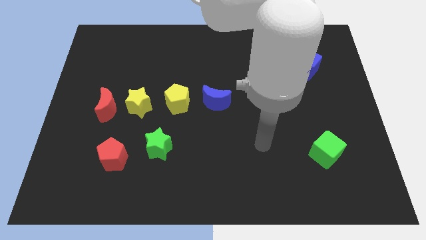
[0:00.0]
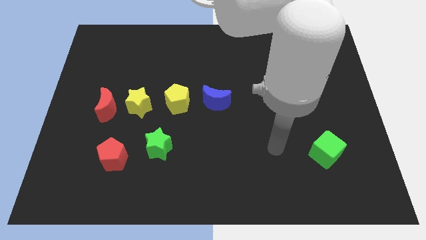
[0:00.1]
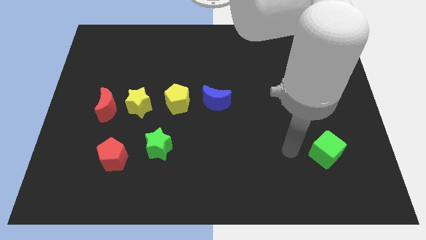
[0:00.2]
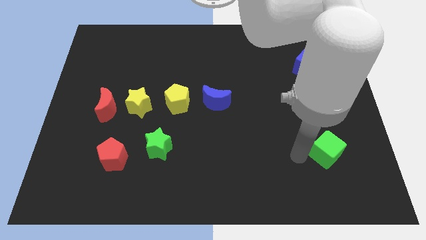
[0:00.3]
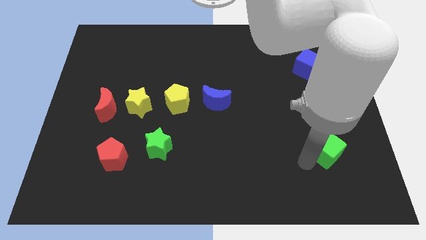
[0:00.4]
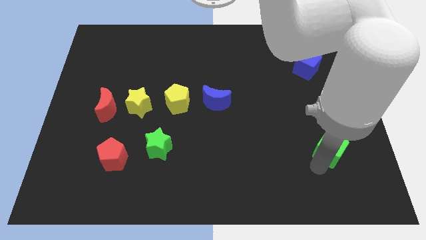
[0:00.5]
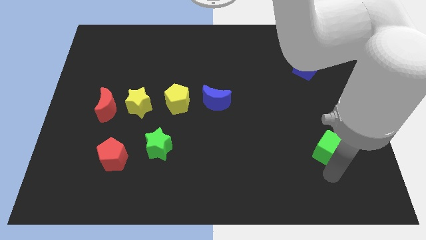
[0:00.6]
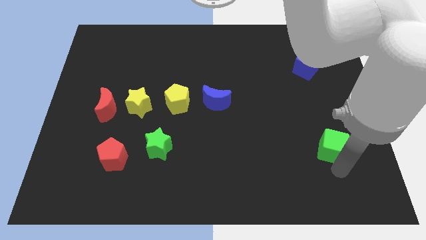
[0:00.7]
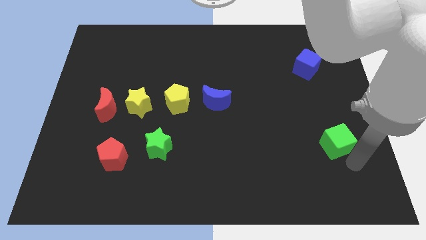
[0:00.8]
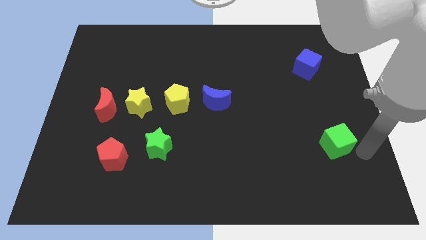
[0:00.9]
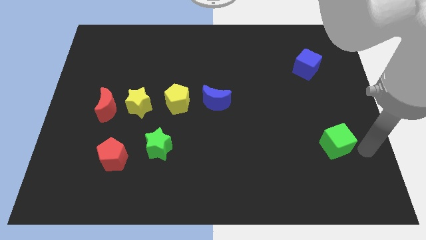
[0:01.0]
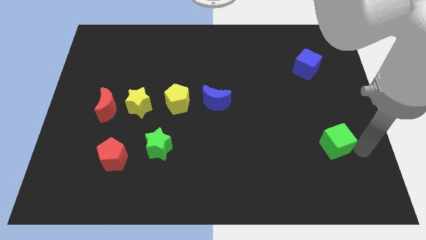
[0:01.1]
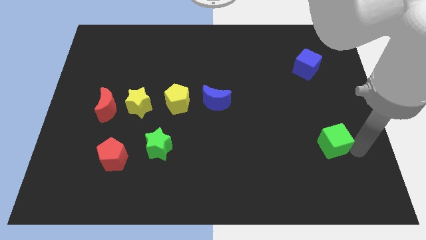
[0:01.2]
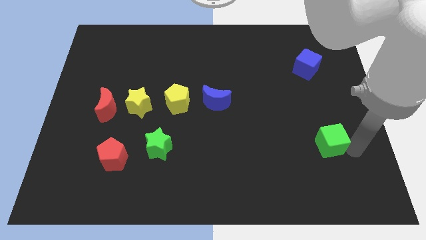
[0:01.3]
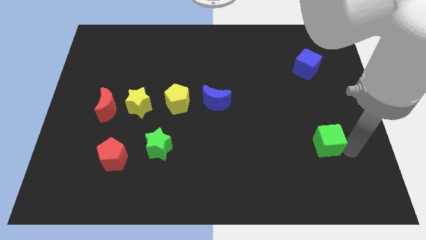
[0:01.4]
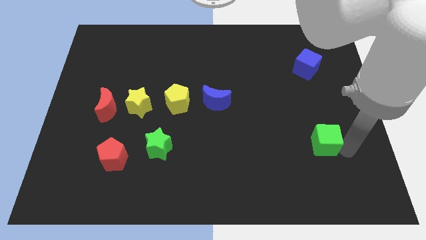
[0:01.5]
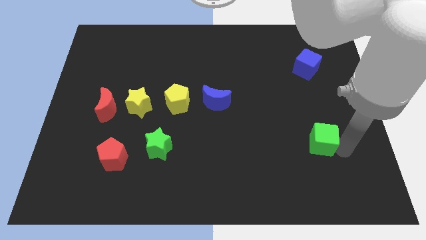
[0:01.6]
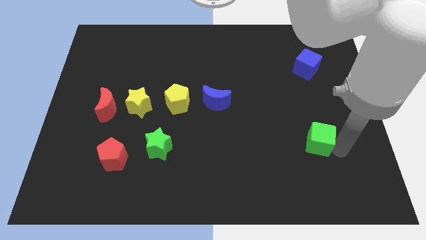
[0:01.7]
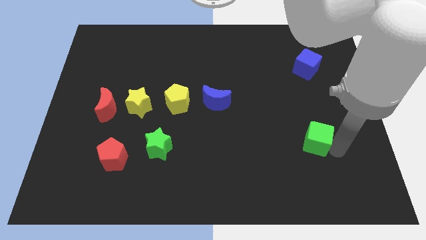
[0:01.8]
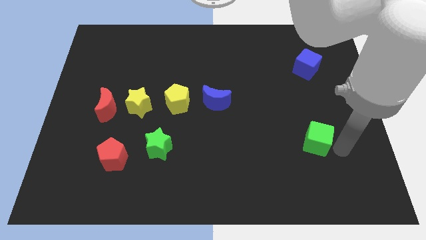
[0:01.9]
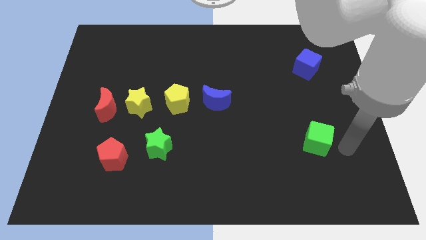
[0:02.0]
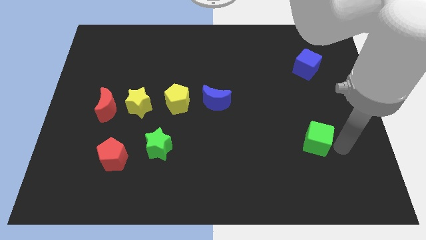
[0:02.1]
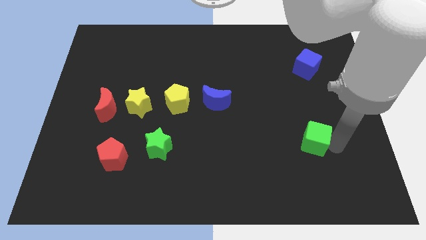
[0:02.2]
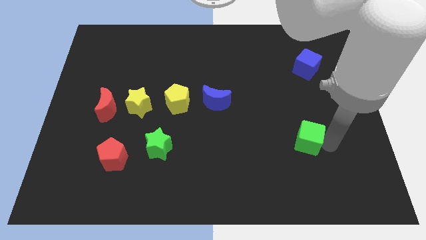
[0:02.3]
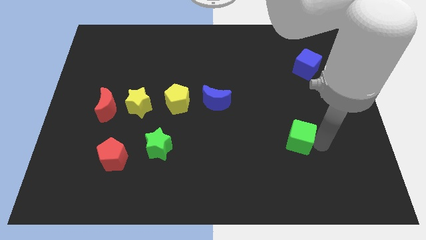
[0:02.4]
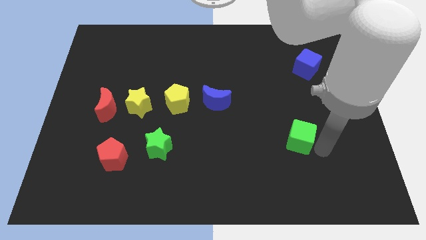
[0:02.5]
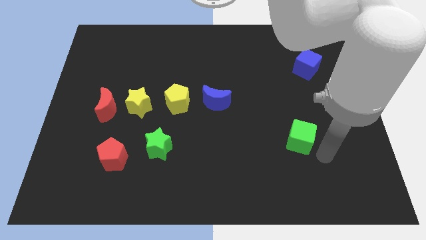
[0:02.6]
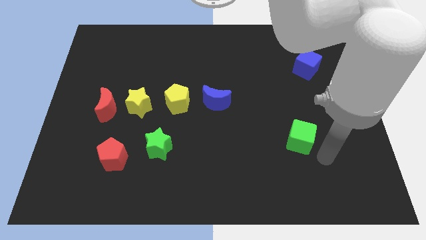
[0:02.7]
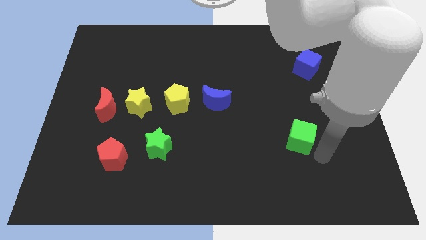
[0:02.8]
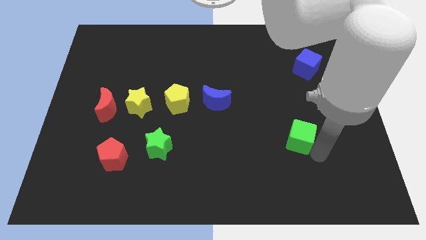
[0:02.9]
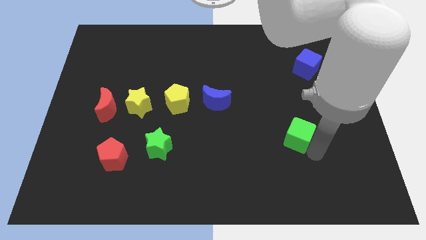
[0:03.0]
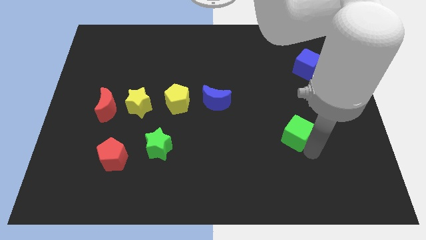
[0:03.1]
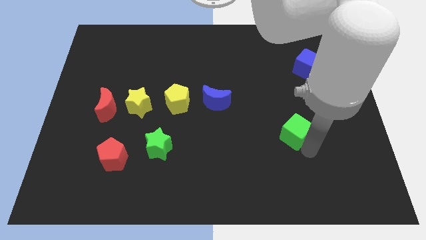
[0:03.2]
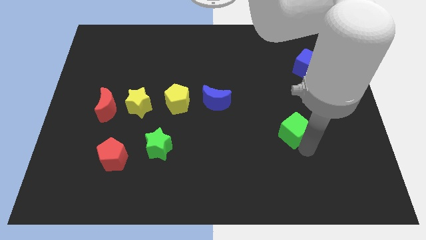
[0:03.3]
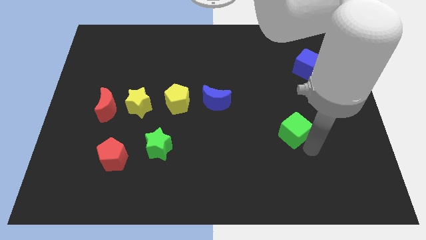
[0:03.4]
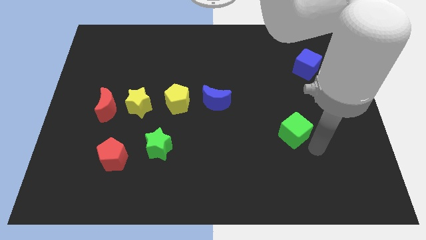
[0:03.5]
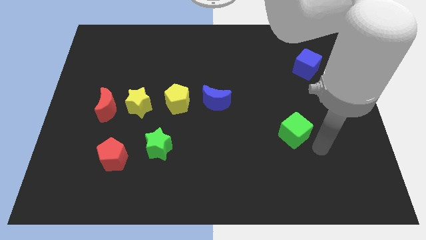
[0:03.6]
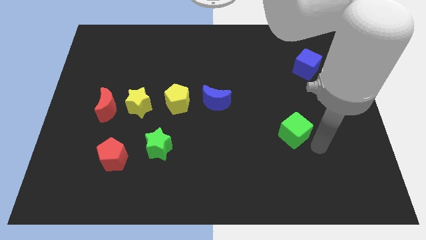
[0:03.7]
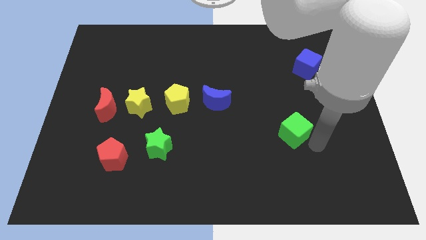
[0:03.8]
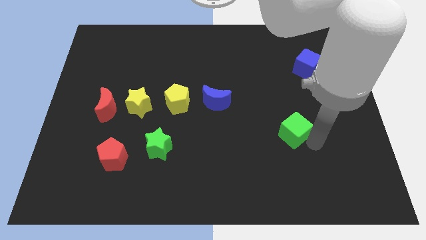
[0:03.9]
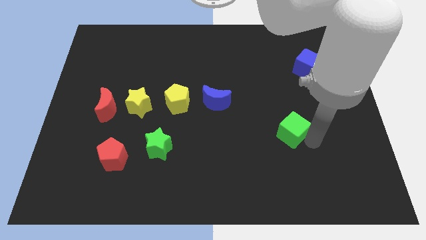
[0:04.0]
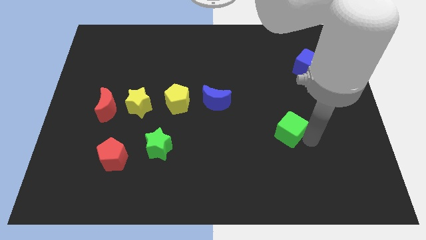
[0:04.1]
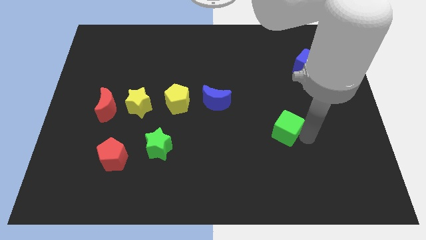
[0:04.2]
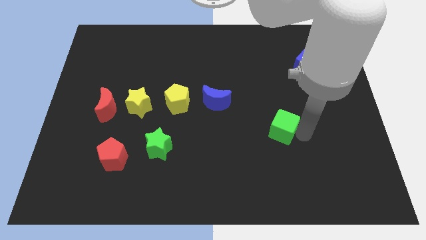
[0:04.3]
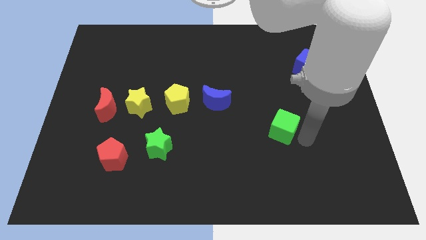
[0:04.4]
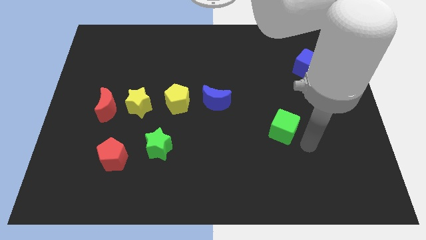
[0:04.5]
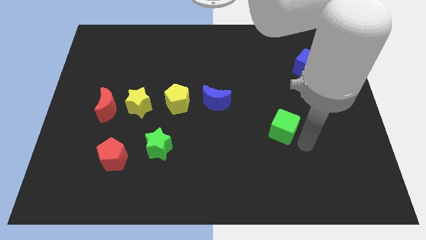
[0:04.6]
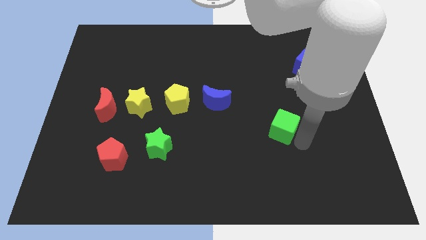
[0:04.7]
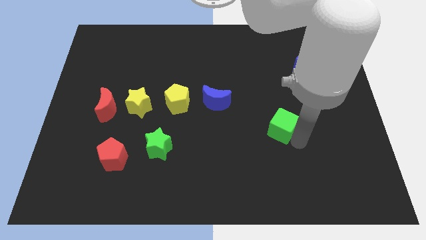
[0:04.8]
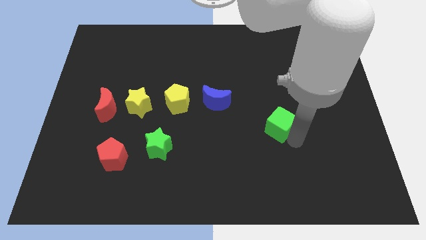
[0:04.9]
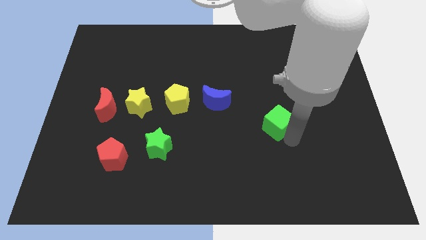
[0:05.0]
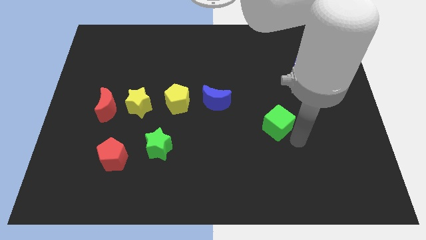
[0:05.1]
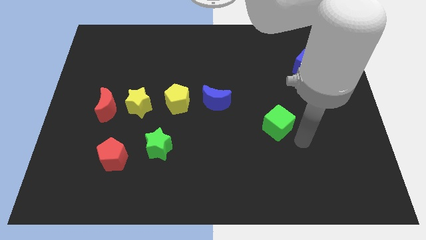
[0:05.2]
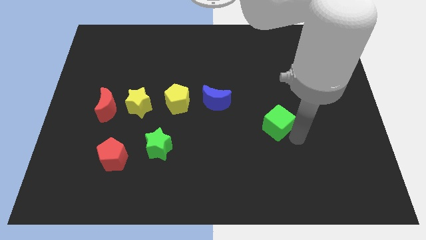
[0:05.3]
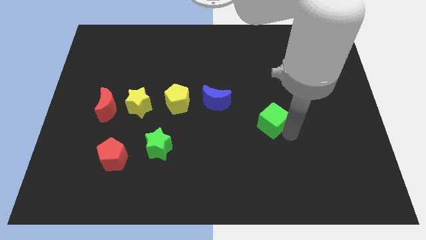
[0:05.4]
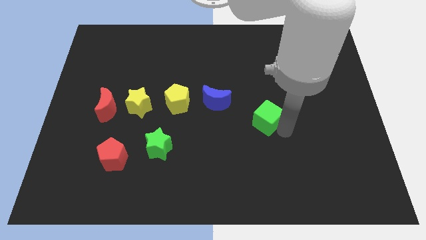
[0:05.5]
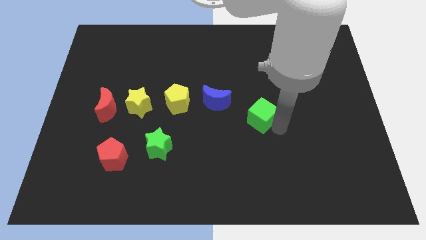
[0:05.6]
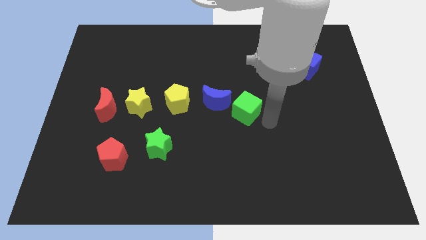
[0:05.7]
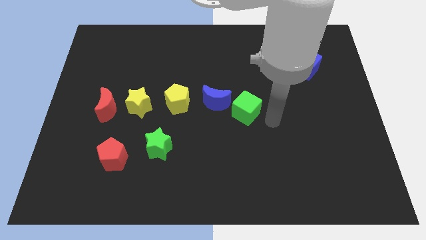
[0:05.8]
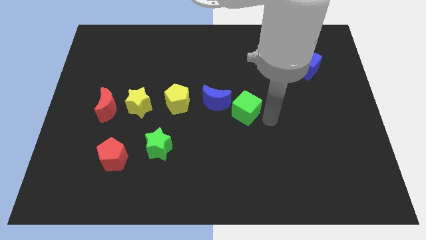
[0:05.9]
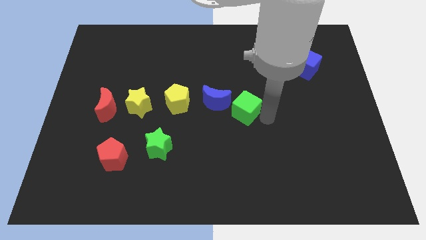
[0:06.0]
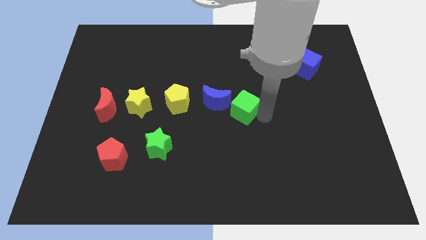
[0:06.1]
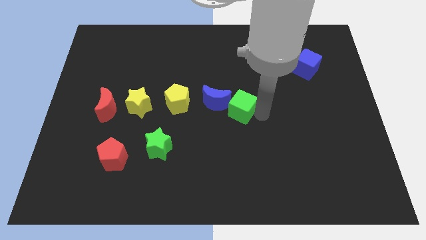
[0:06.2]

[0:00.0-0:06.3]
put the green cube just right of the yellow pentagon

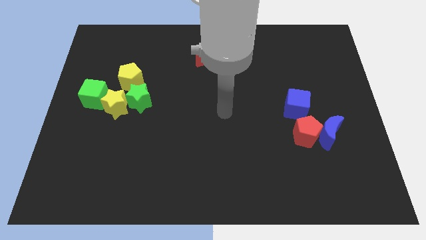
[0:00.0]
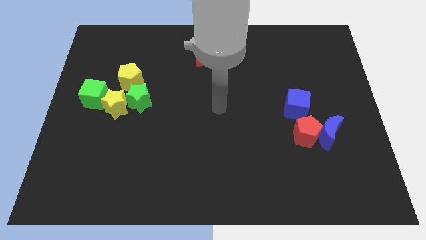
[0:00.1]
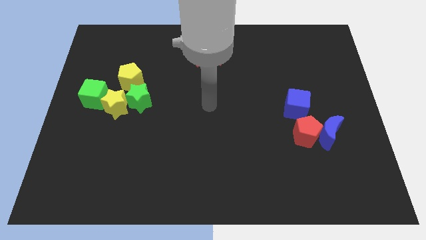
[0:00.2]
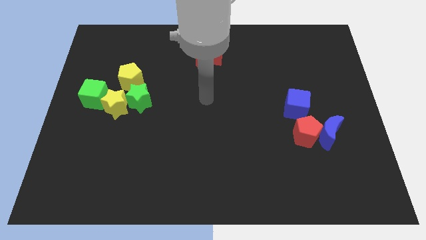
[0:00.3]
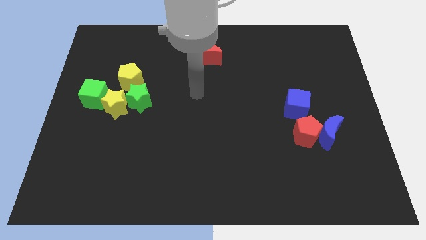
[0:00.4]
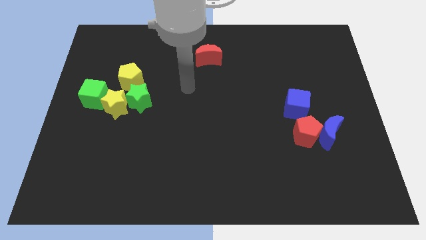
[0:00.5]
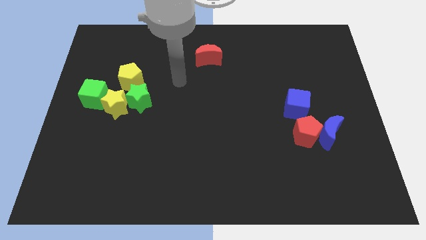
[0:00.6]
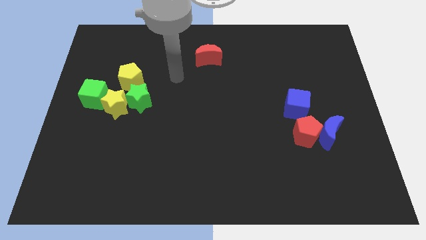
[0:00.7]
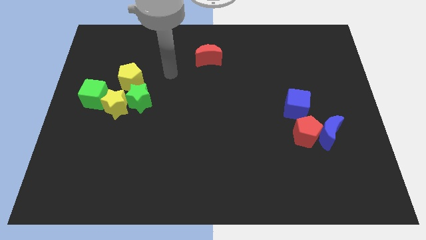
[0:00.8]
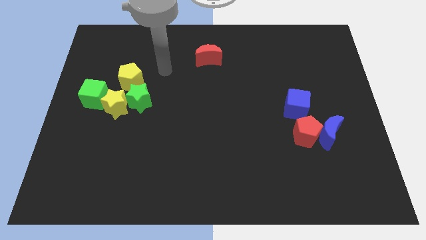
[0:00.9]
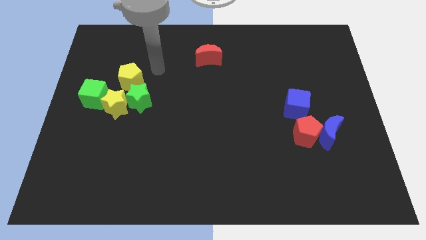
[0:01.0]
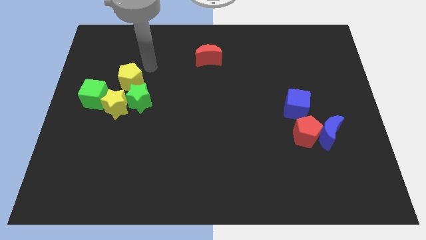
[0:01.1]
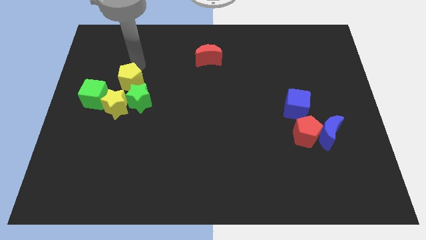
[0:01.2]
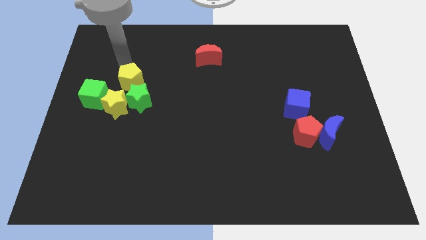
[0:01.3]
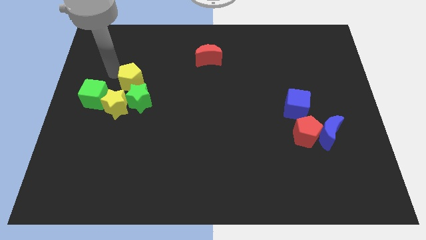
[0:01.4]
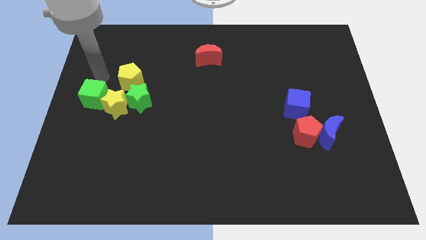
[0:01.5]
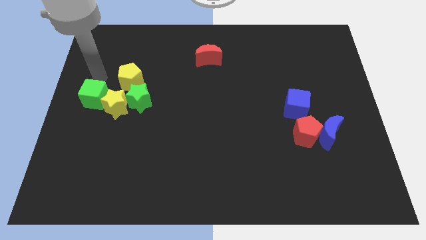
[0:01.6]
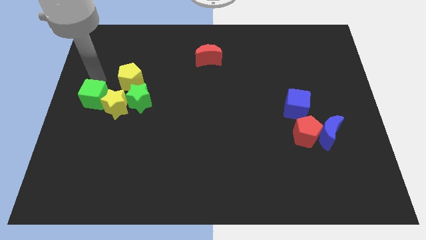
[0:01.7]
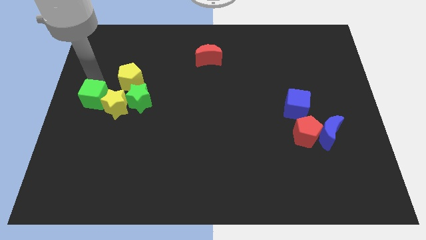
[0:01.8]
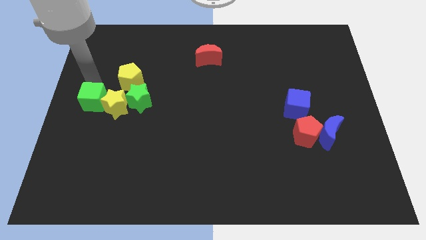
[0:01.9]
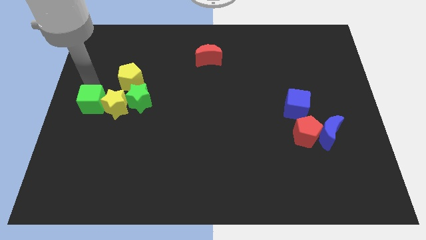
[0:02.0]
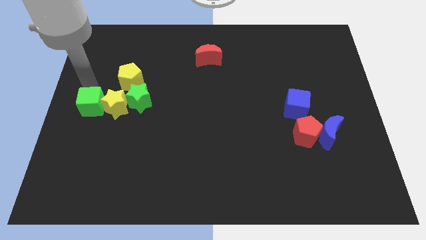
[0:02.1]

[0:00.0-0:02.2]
move the green cube to the bottom left side of the yellow star
